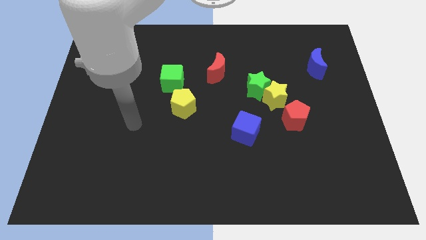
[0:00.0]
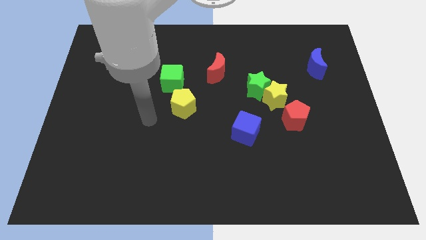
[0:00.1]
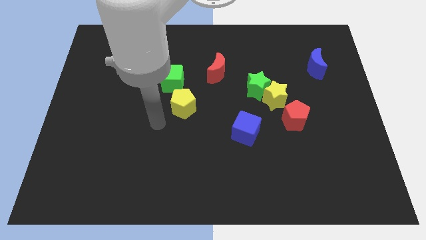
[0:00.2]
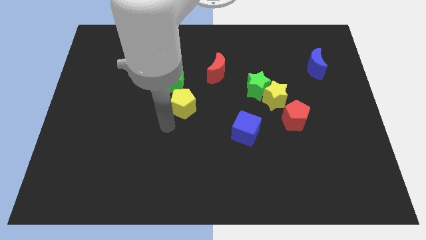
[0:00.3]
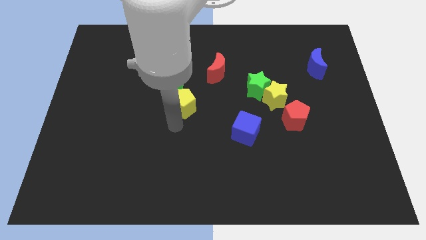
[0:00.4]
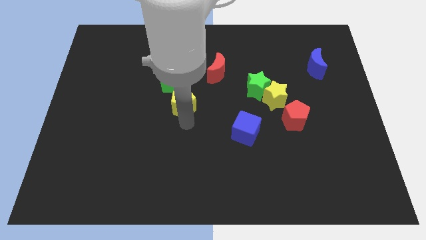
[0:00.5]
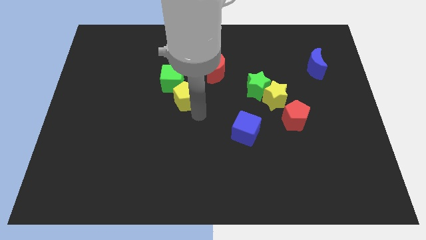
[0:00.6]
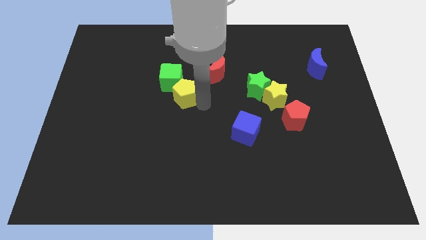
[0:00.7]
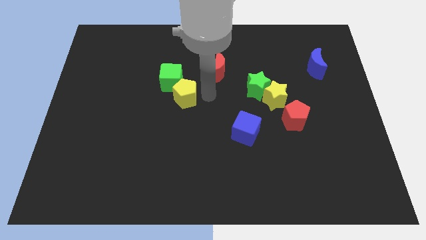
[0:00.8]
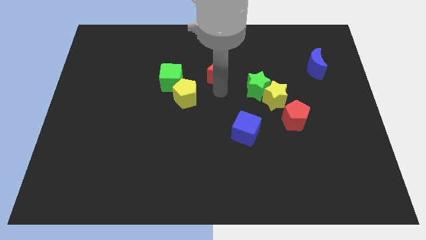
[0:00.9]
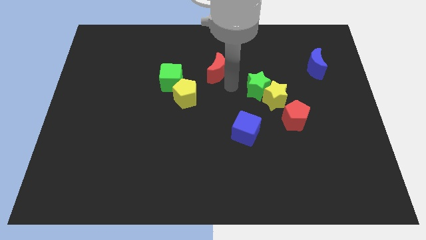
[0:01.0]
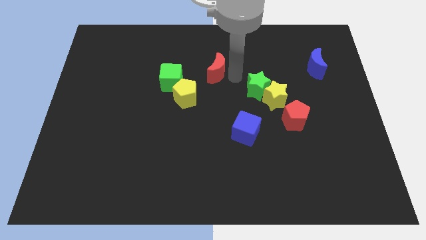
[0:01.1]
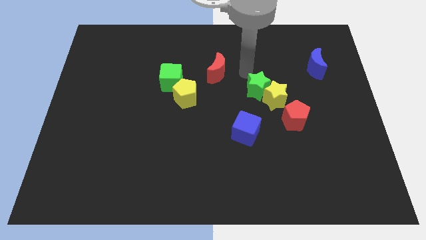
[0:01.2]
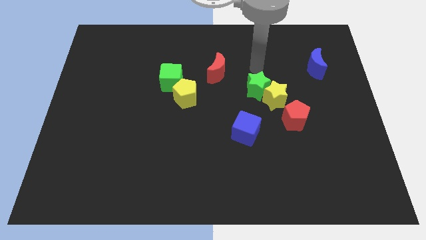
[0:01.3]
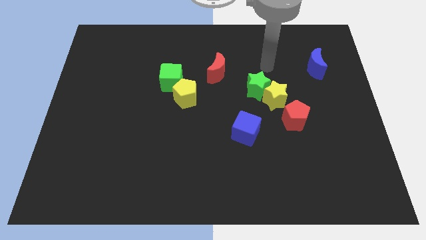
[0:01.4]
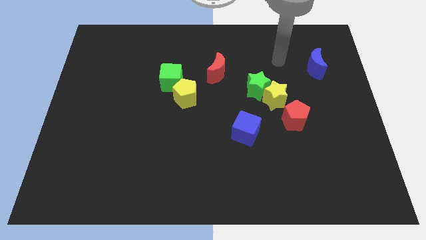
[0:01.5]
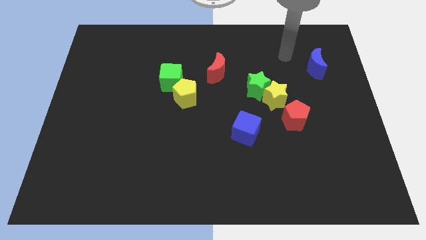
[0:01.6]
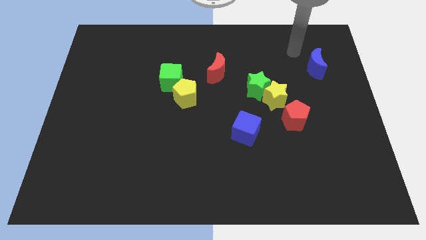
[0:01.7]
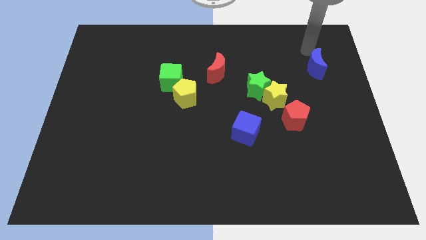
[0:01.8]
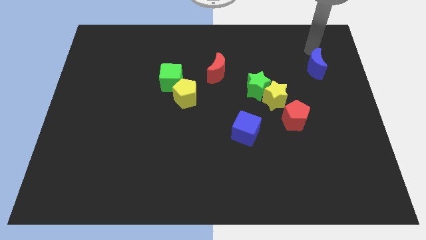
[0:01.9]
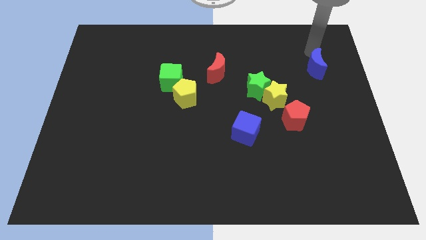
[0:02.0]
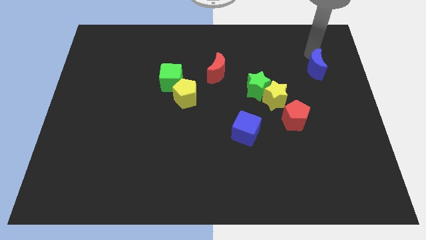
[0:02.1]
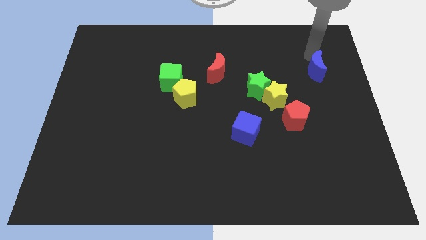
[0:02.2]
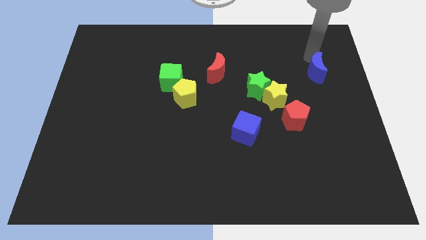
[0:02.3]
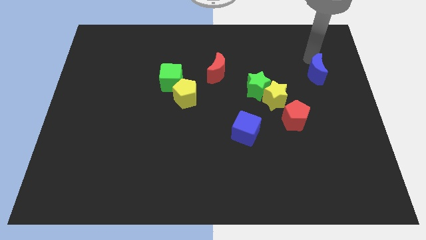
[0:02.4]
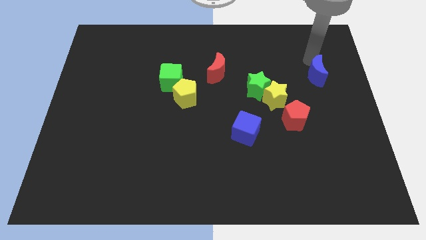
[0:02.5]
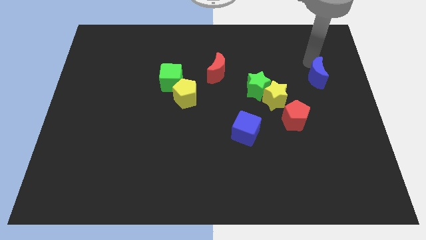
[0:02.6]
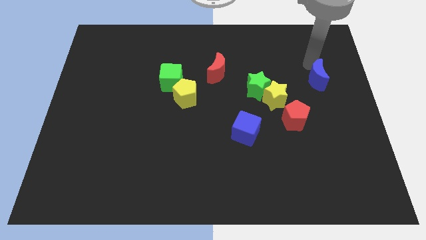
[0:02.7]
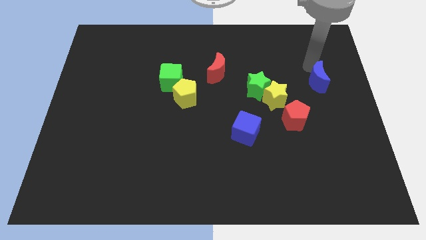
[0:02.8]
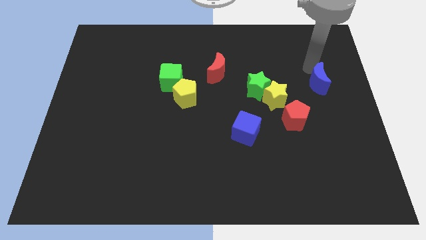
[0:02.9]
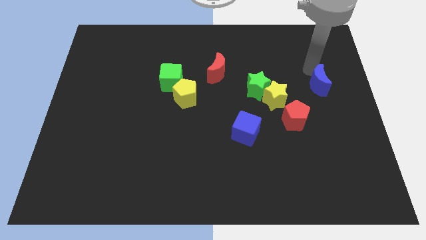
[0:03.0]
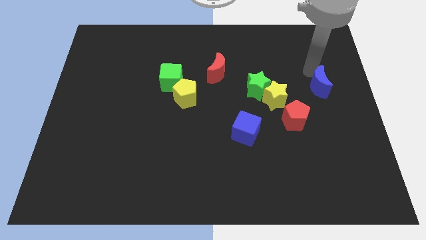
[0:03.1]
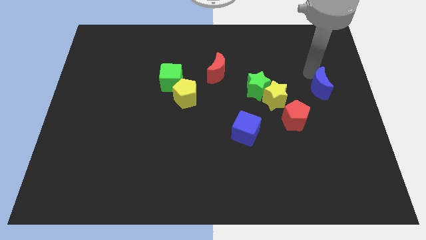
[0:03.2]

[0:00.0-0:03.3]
slide the blue moon downwards a little

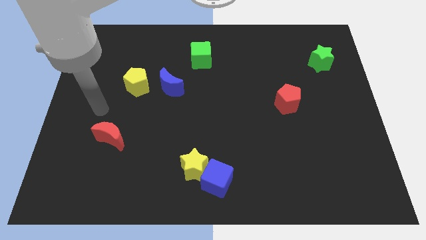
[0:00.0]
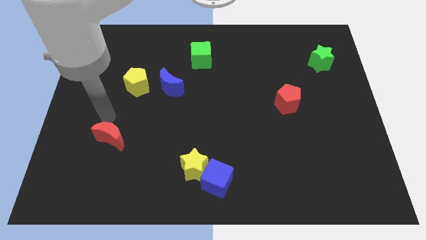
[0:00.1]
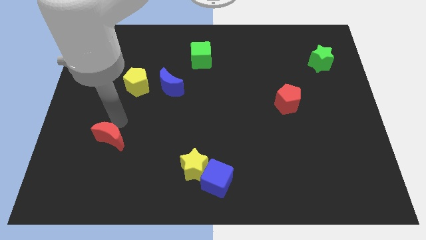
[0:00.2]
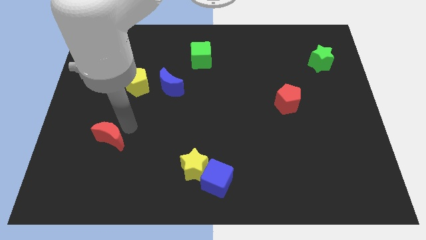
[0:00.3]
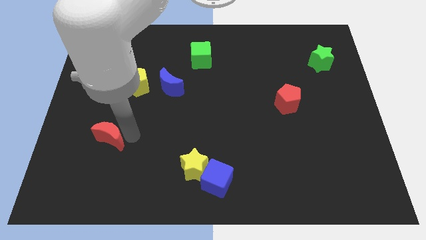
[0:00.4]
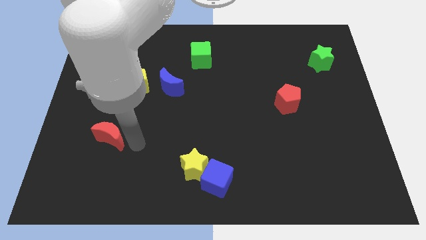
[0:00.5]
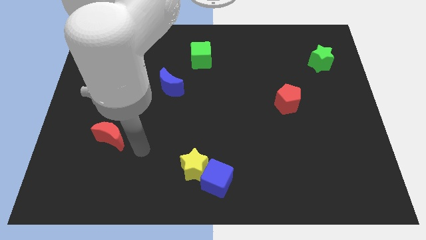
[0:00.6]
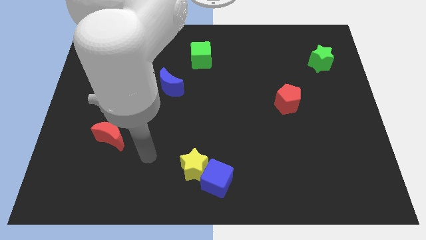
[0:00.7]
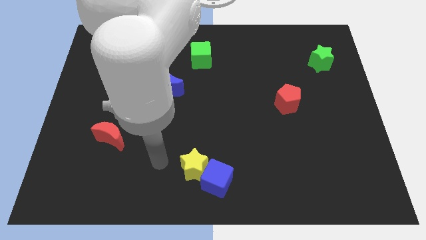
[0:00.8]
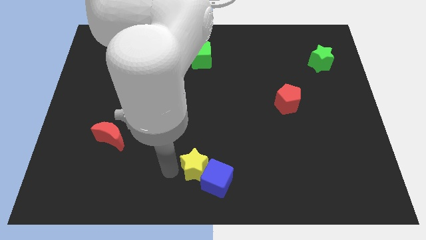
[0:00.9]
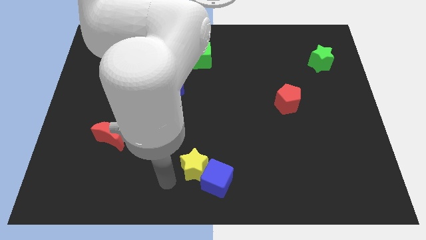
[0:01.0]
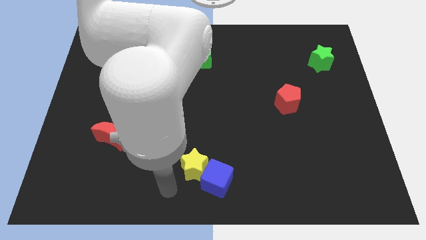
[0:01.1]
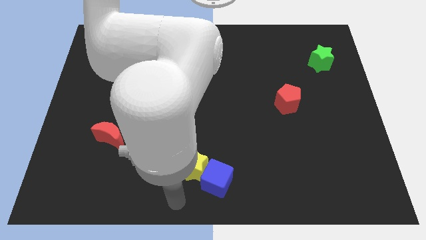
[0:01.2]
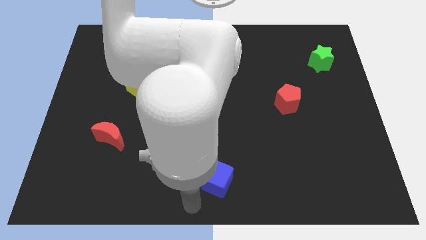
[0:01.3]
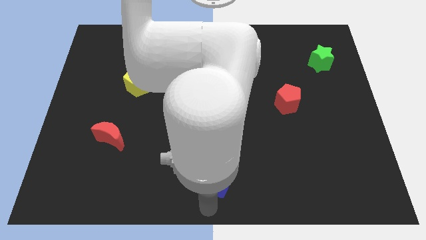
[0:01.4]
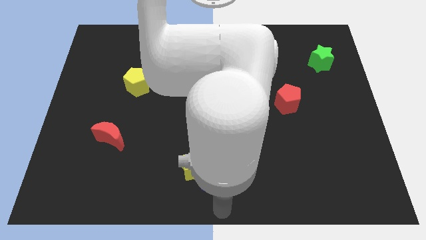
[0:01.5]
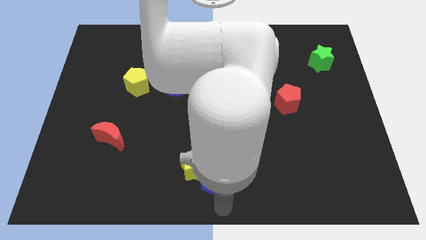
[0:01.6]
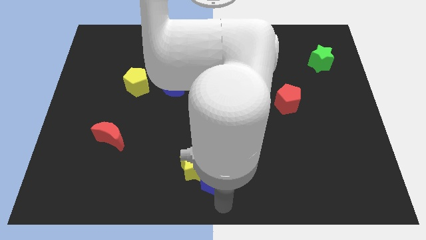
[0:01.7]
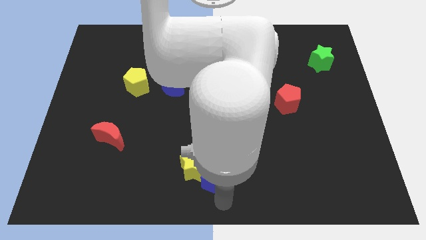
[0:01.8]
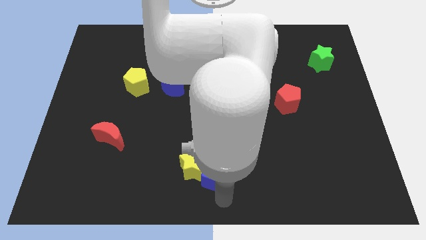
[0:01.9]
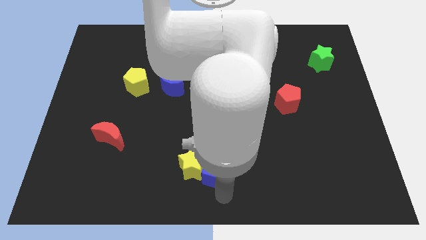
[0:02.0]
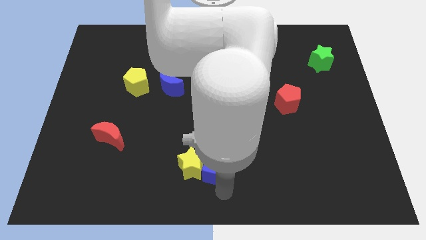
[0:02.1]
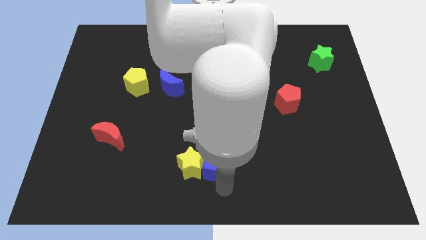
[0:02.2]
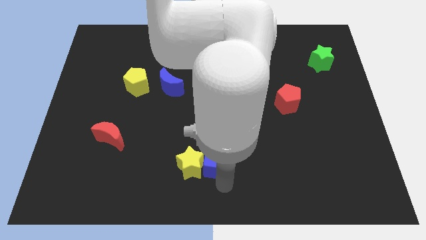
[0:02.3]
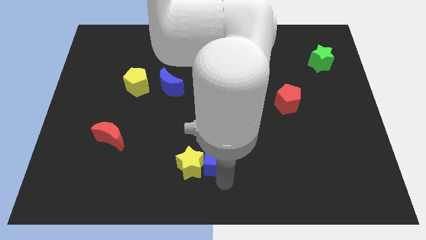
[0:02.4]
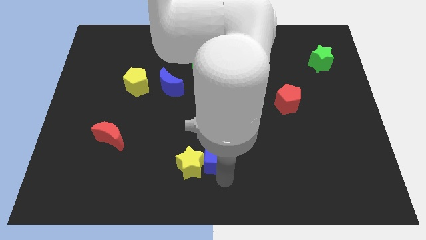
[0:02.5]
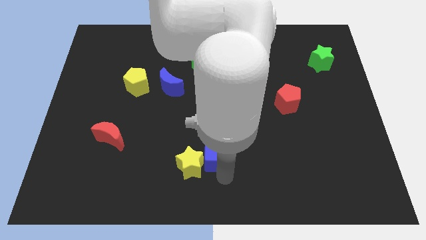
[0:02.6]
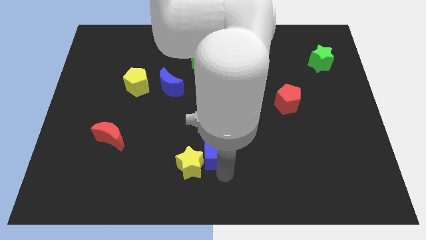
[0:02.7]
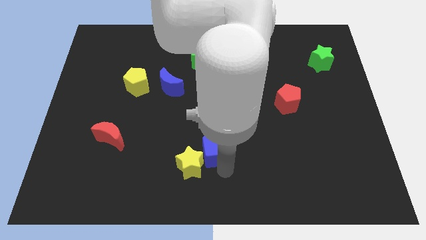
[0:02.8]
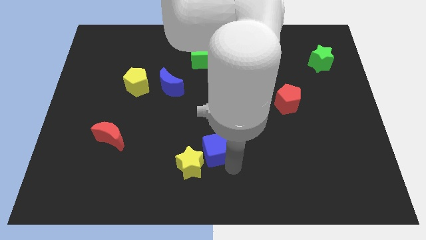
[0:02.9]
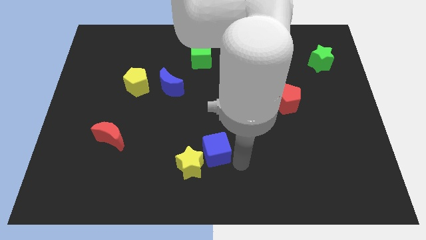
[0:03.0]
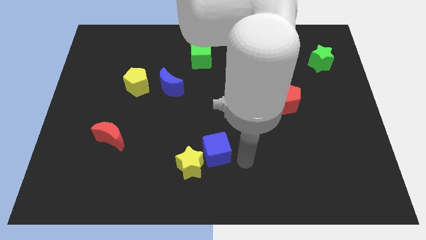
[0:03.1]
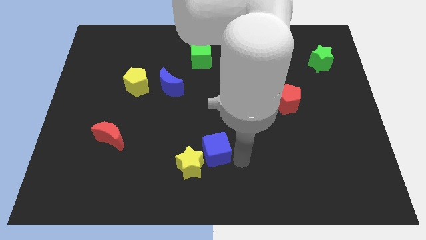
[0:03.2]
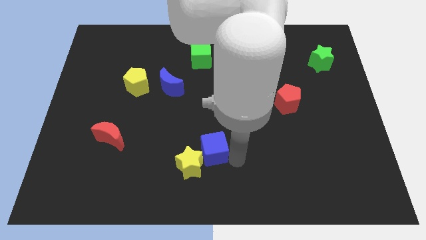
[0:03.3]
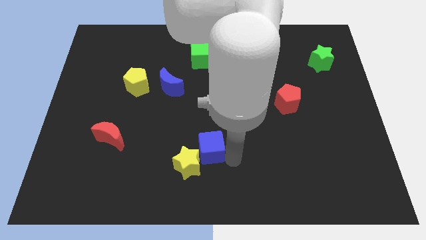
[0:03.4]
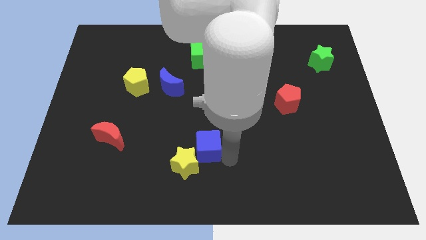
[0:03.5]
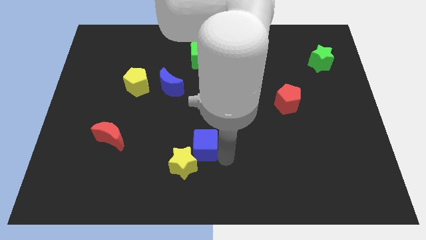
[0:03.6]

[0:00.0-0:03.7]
move the blue cube a little upwards and left

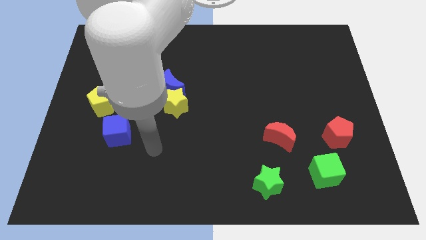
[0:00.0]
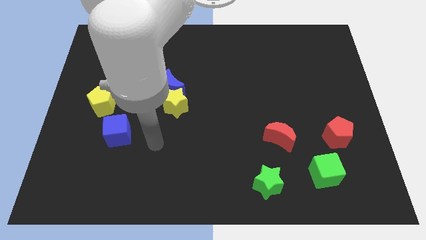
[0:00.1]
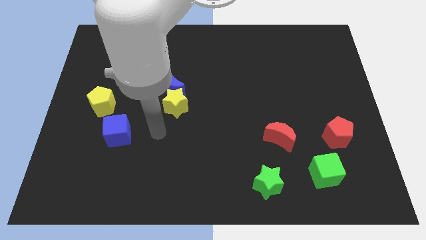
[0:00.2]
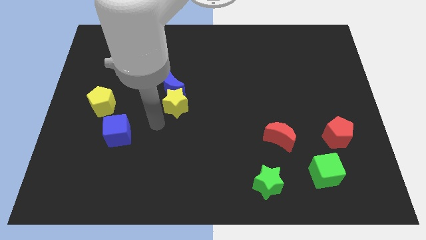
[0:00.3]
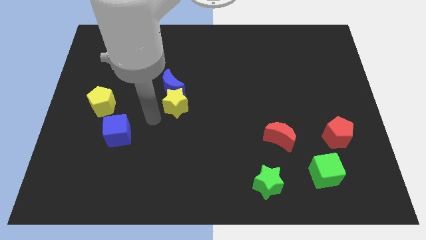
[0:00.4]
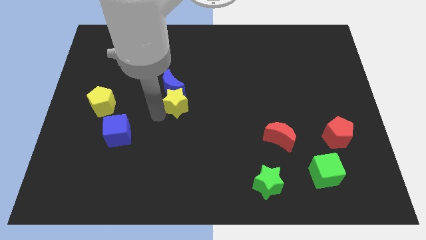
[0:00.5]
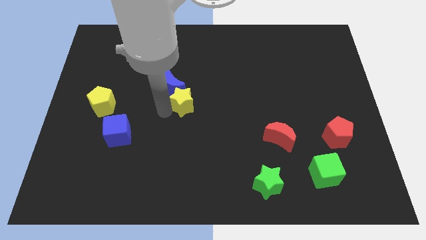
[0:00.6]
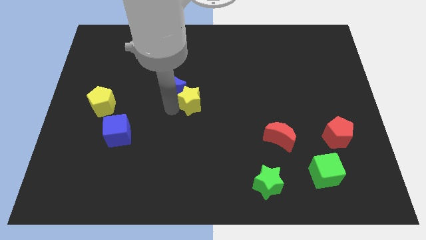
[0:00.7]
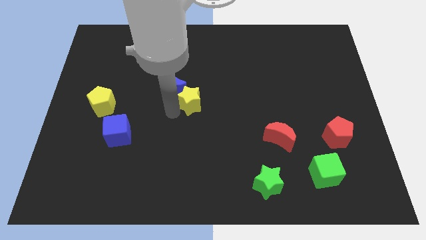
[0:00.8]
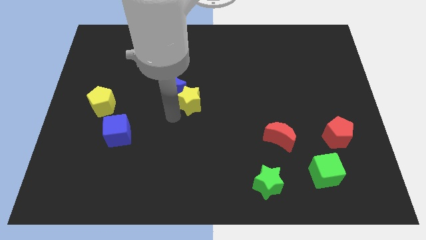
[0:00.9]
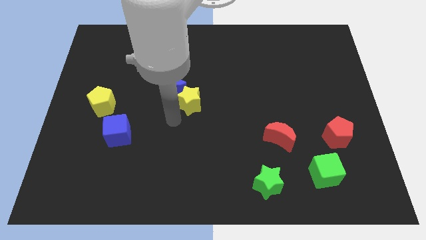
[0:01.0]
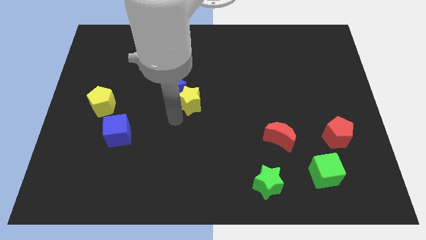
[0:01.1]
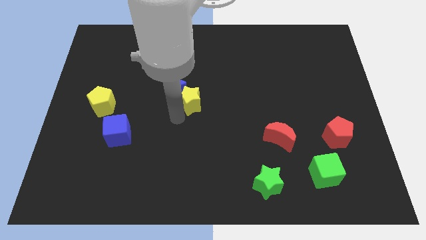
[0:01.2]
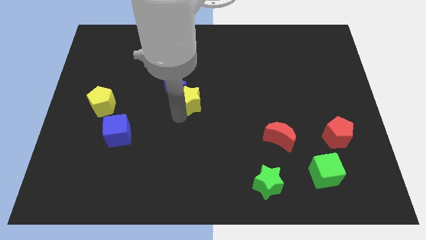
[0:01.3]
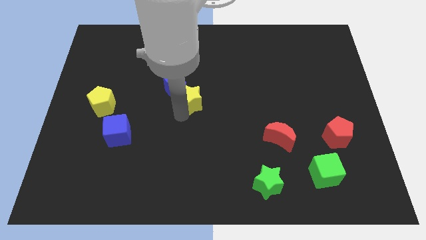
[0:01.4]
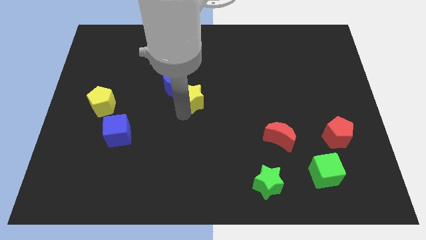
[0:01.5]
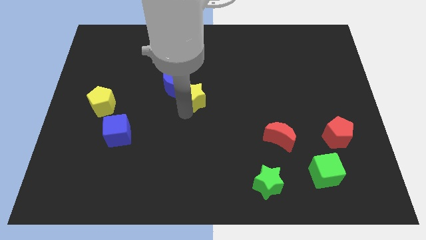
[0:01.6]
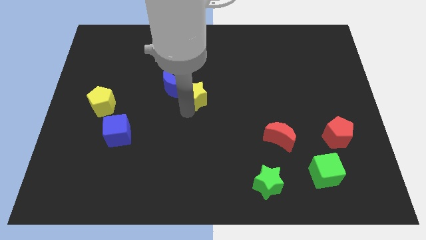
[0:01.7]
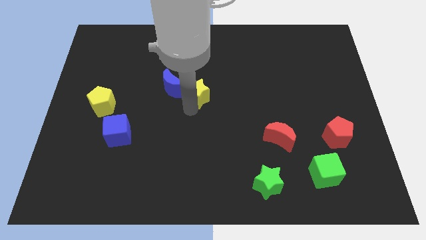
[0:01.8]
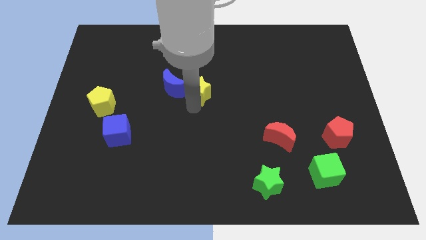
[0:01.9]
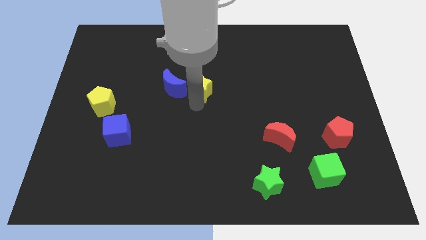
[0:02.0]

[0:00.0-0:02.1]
slightly move the yellow star upwards and to the right diagonally
